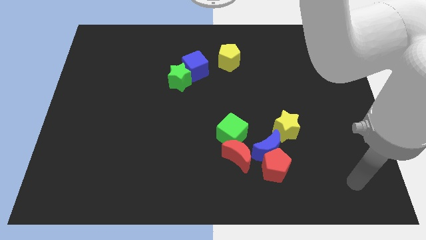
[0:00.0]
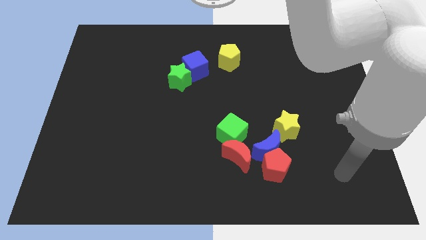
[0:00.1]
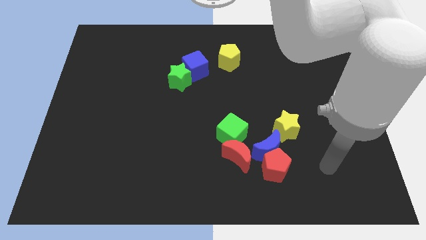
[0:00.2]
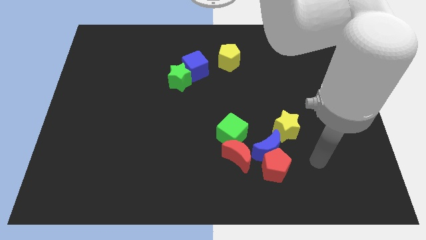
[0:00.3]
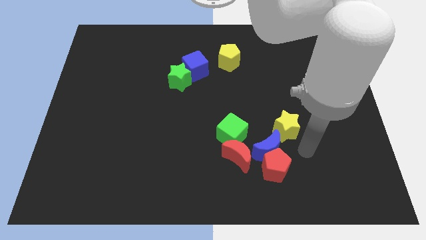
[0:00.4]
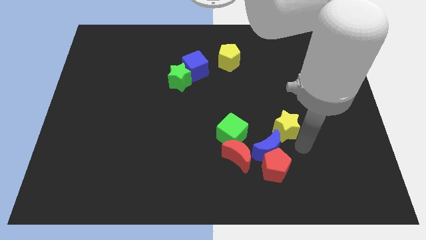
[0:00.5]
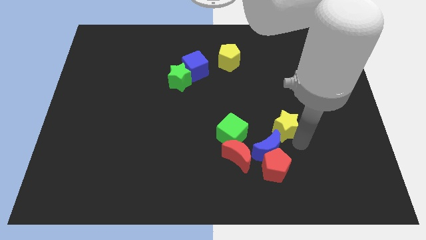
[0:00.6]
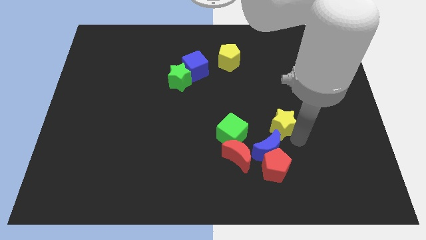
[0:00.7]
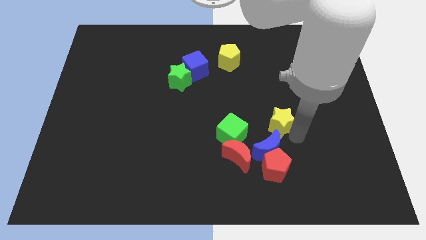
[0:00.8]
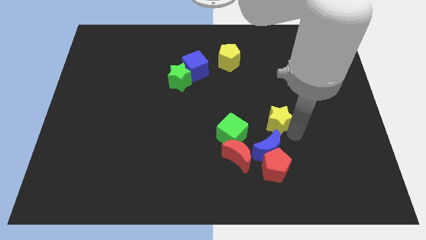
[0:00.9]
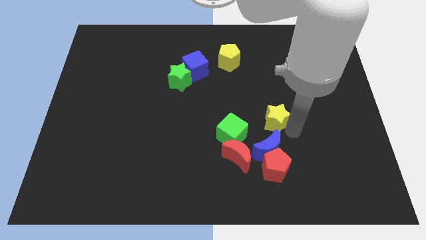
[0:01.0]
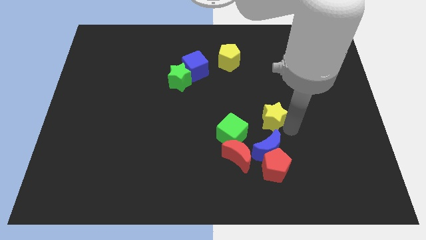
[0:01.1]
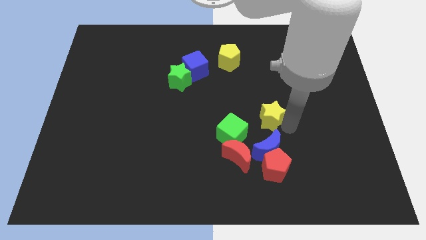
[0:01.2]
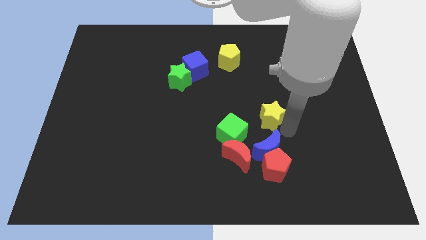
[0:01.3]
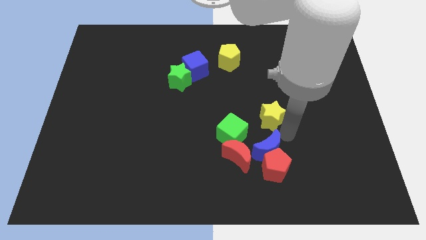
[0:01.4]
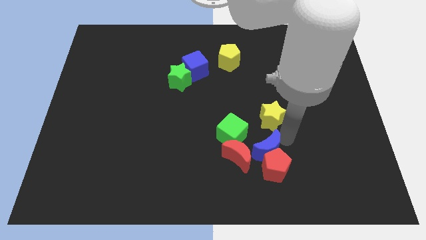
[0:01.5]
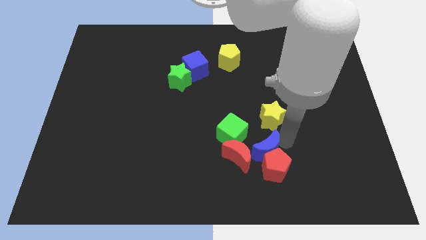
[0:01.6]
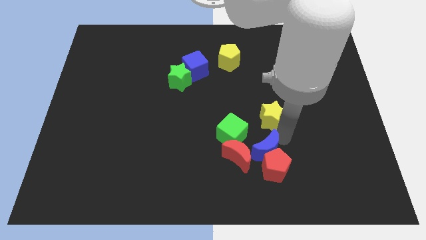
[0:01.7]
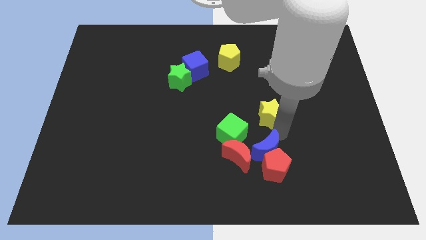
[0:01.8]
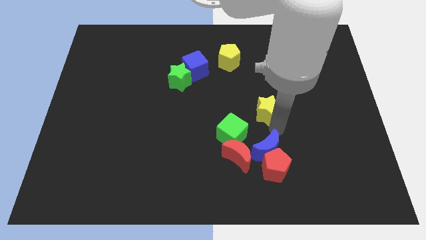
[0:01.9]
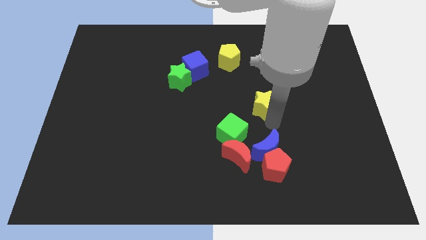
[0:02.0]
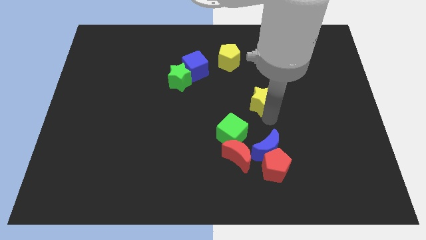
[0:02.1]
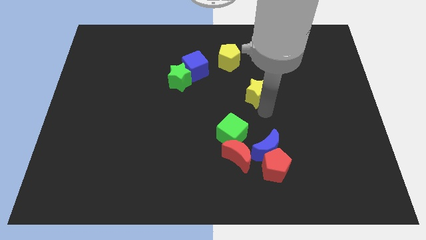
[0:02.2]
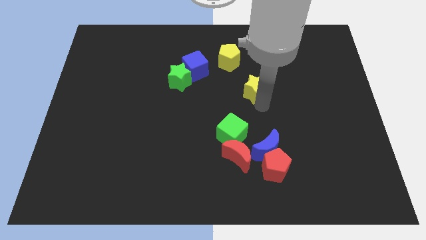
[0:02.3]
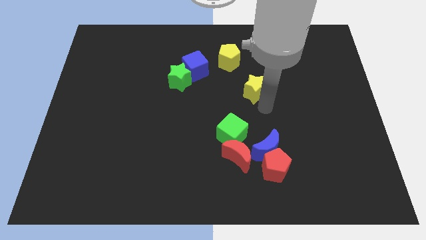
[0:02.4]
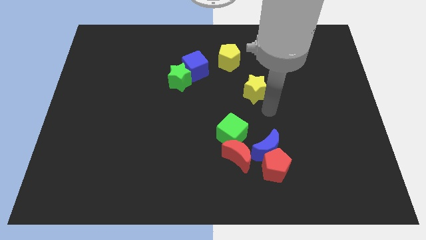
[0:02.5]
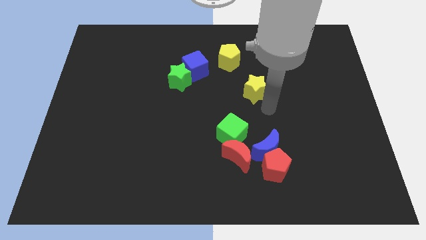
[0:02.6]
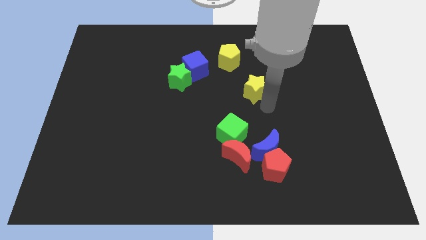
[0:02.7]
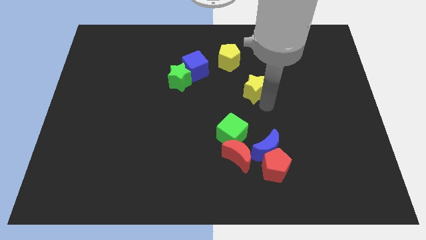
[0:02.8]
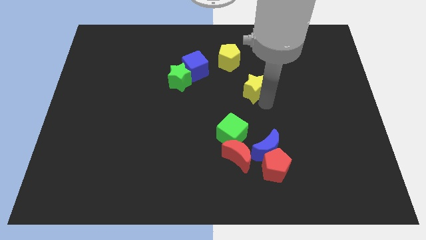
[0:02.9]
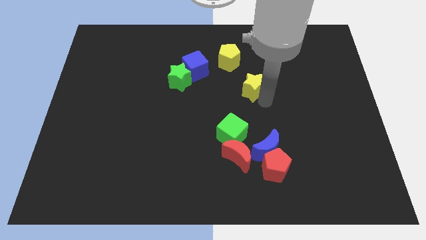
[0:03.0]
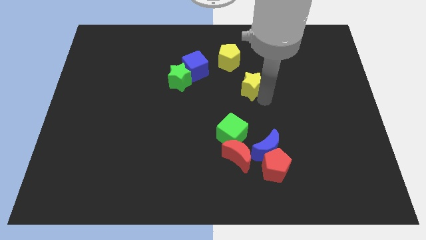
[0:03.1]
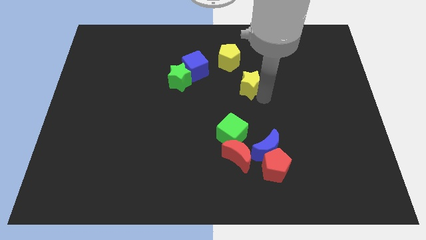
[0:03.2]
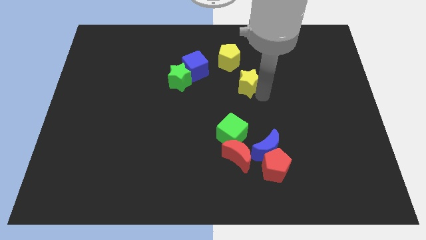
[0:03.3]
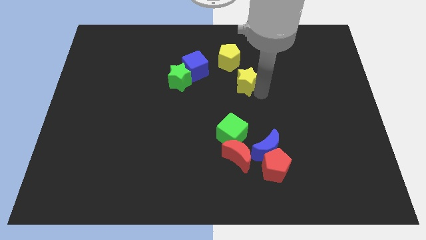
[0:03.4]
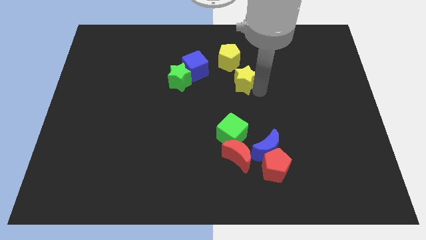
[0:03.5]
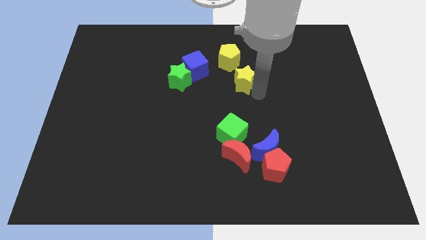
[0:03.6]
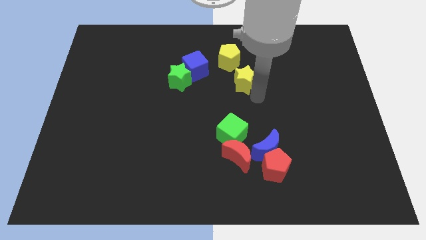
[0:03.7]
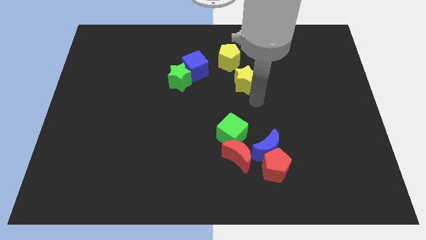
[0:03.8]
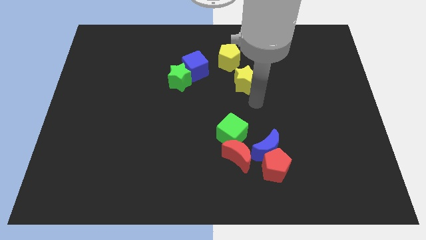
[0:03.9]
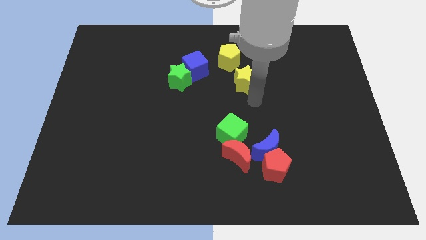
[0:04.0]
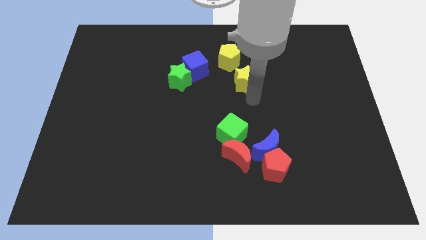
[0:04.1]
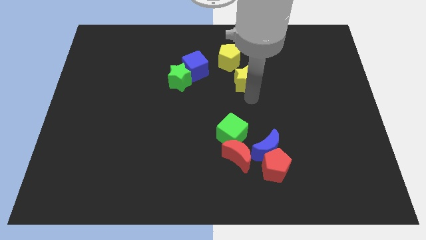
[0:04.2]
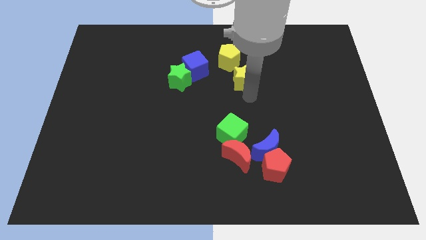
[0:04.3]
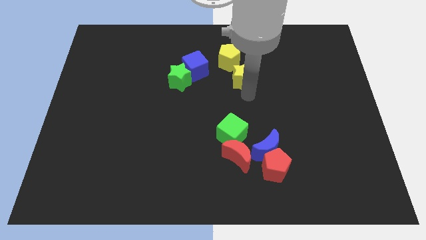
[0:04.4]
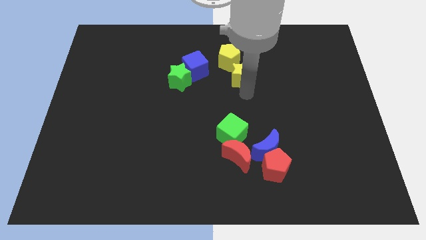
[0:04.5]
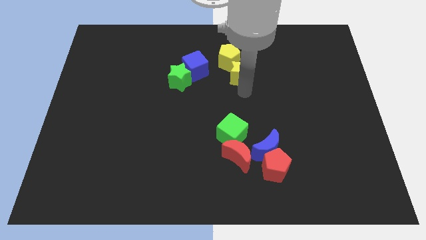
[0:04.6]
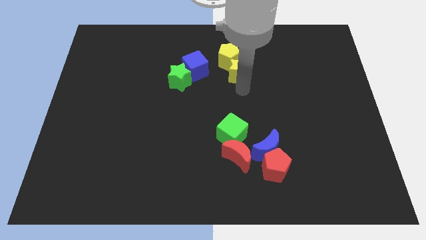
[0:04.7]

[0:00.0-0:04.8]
slide the yellow star towards the yellow pentagon

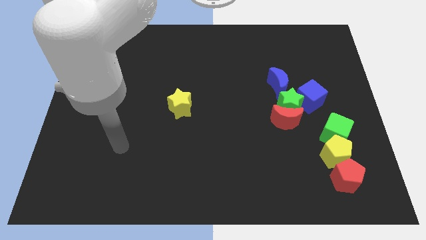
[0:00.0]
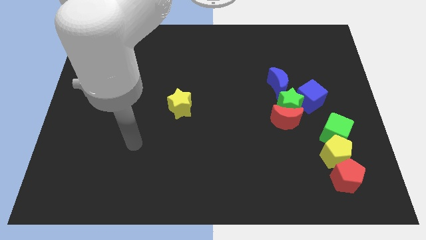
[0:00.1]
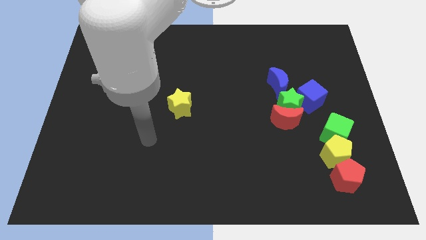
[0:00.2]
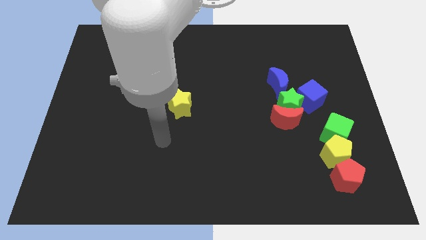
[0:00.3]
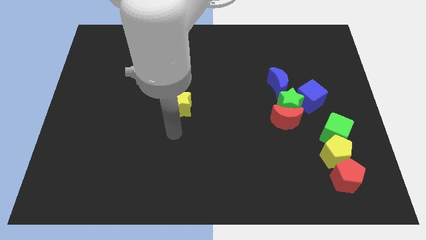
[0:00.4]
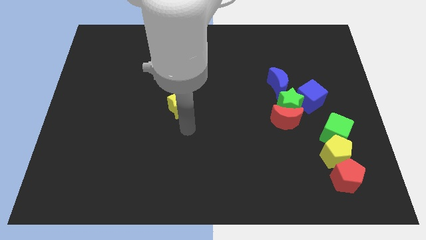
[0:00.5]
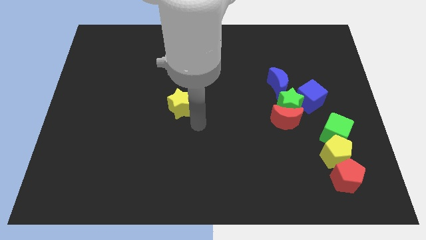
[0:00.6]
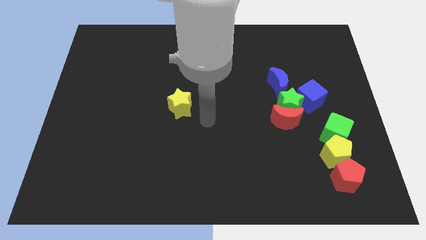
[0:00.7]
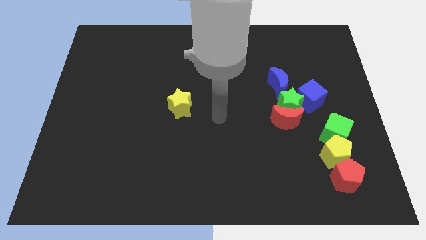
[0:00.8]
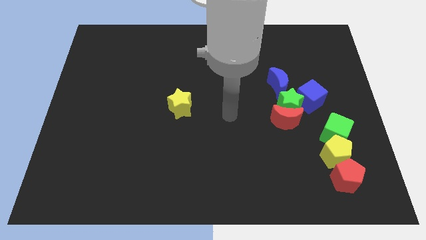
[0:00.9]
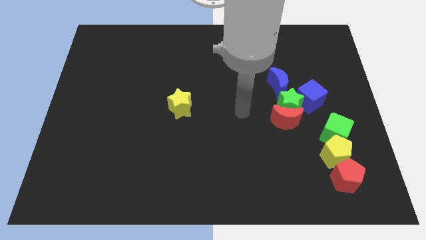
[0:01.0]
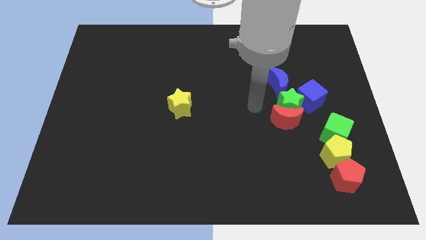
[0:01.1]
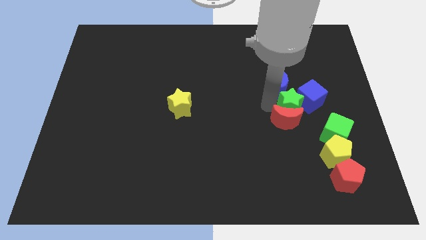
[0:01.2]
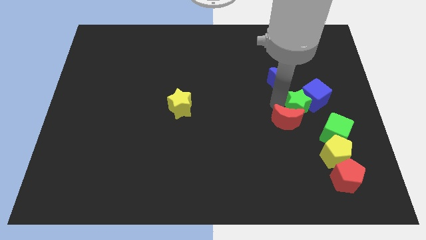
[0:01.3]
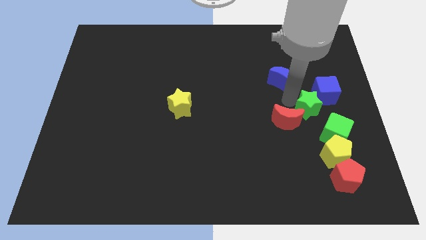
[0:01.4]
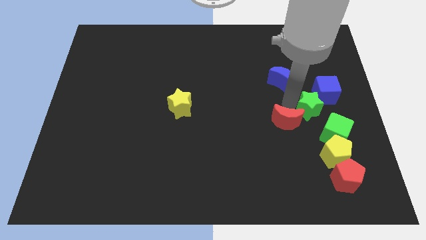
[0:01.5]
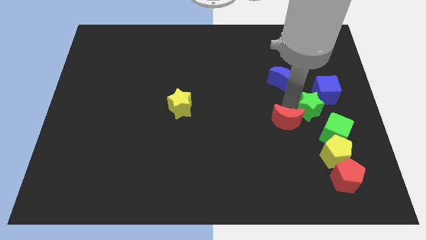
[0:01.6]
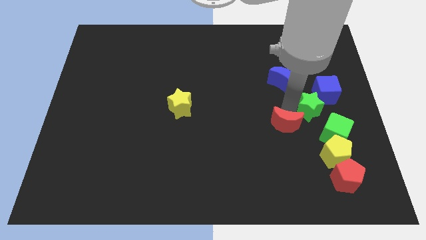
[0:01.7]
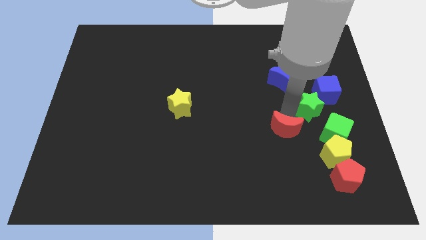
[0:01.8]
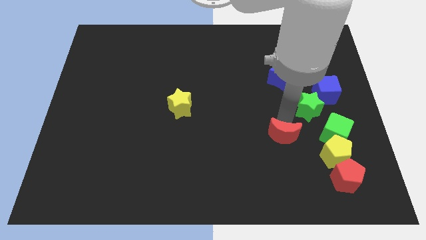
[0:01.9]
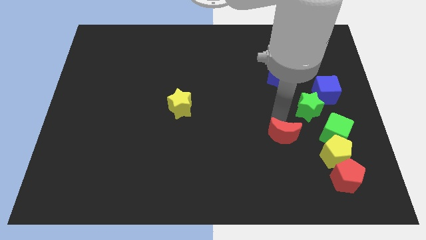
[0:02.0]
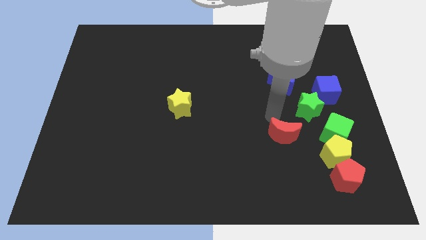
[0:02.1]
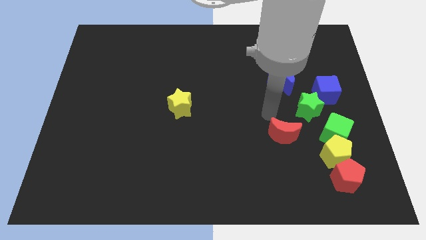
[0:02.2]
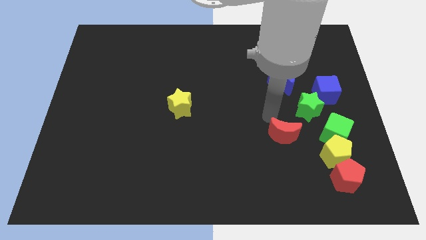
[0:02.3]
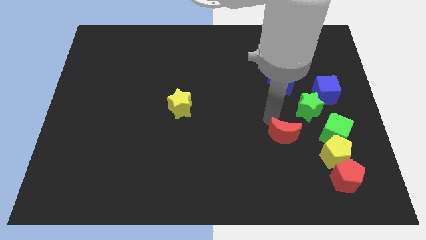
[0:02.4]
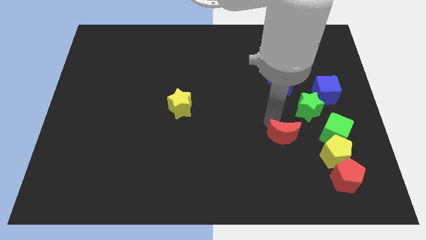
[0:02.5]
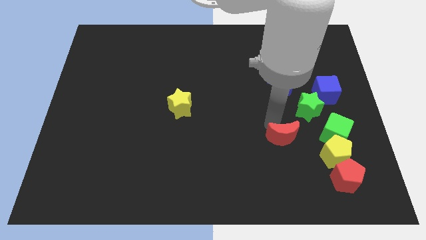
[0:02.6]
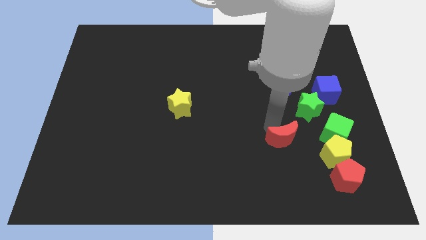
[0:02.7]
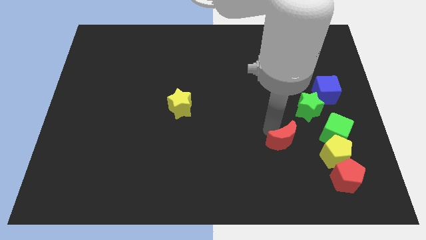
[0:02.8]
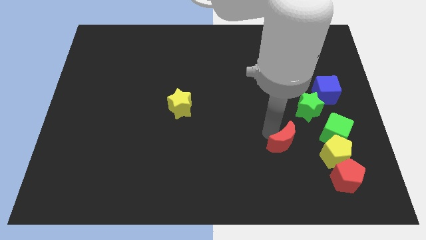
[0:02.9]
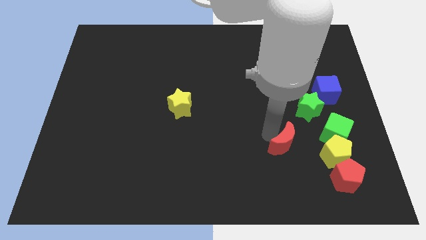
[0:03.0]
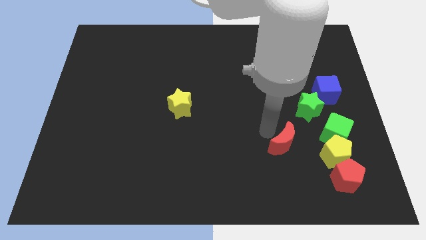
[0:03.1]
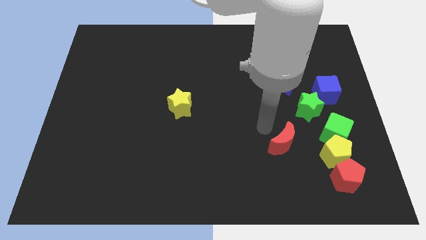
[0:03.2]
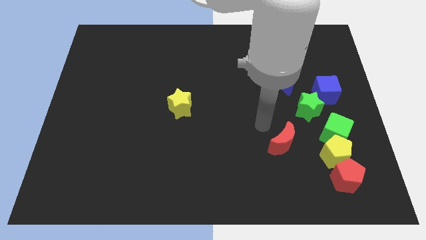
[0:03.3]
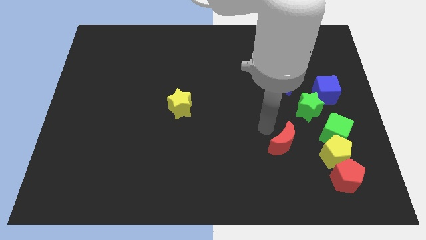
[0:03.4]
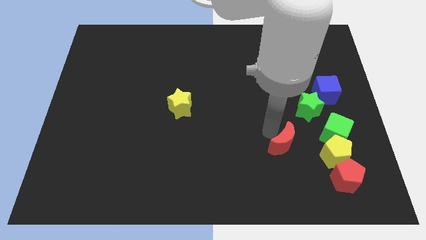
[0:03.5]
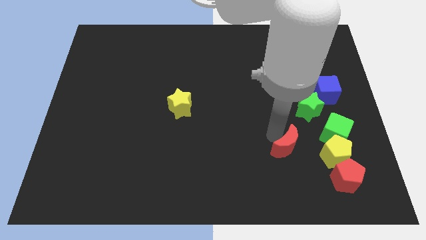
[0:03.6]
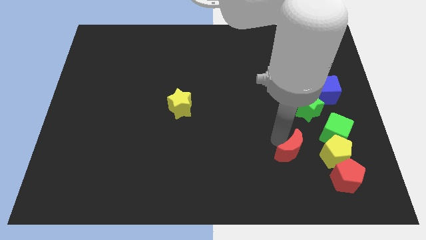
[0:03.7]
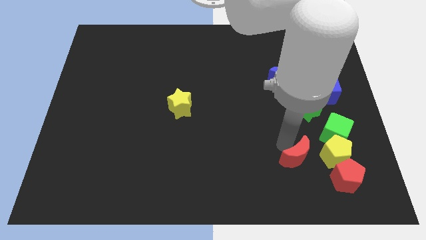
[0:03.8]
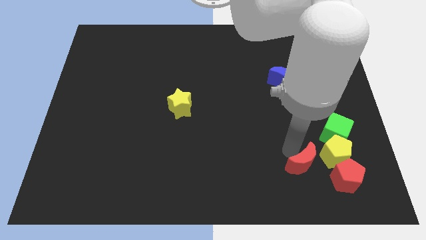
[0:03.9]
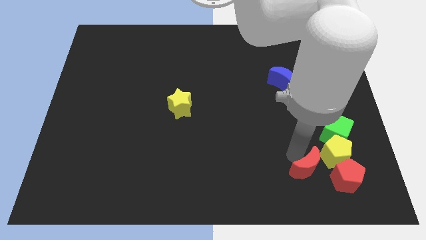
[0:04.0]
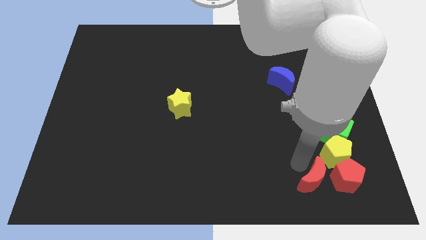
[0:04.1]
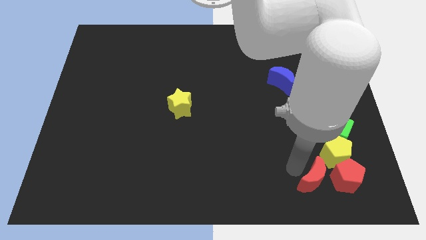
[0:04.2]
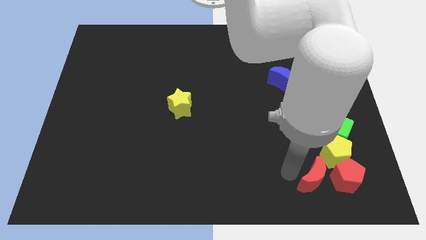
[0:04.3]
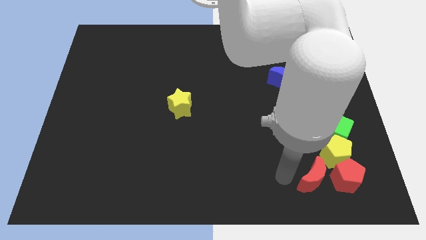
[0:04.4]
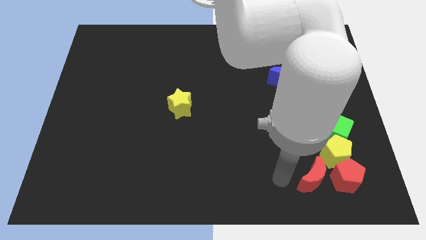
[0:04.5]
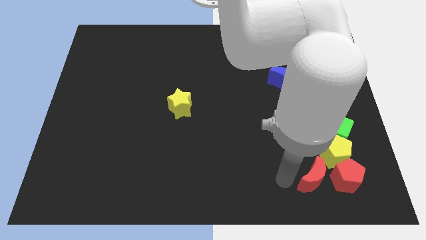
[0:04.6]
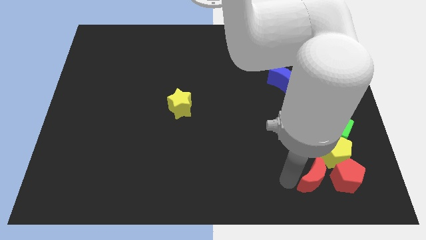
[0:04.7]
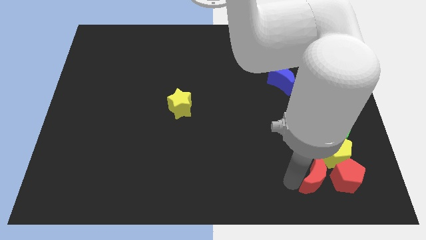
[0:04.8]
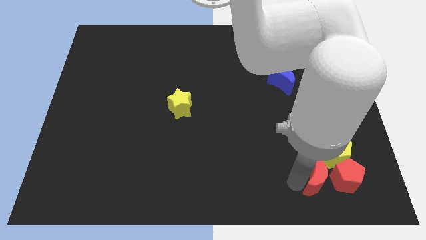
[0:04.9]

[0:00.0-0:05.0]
slide the red moon towards the red pentagon
